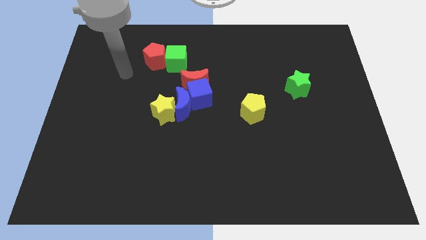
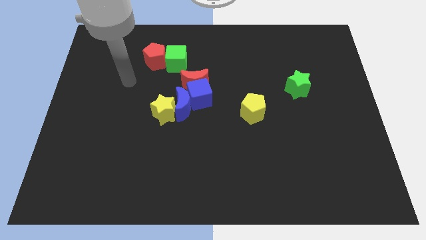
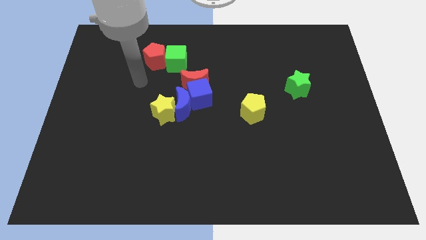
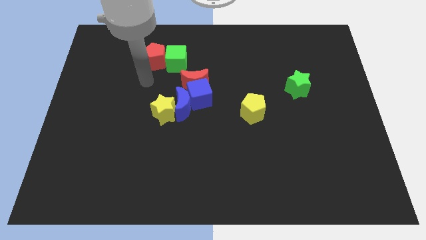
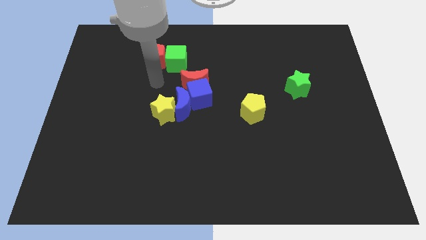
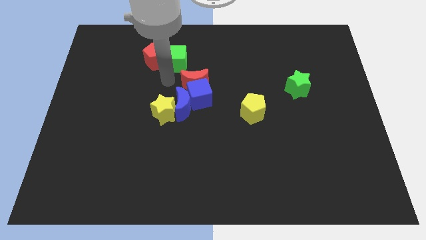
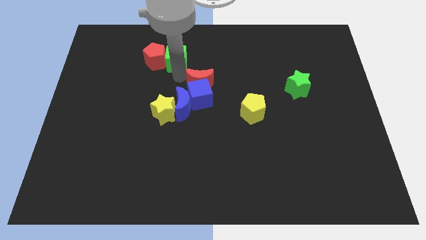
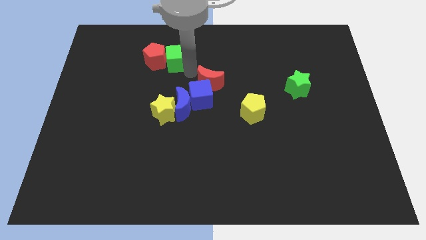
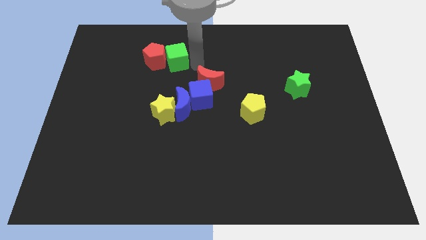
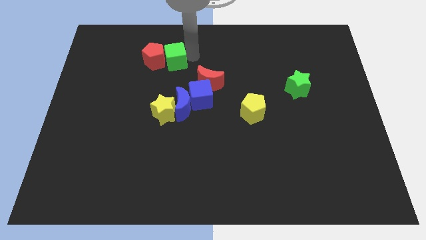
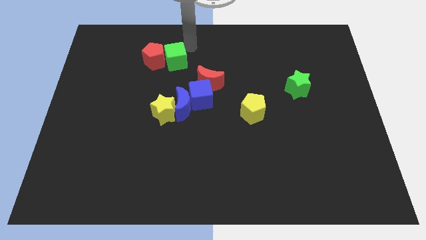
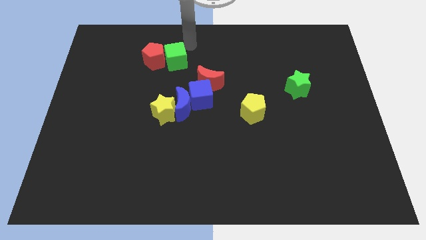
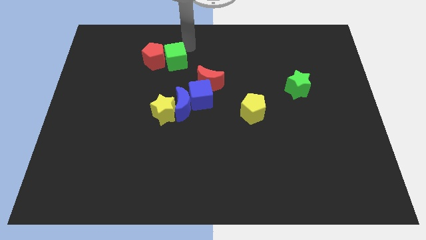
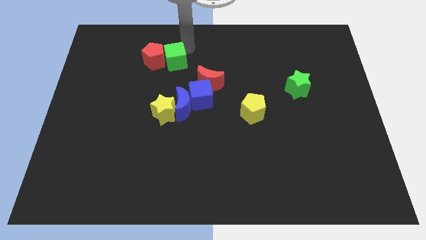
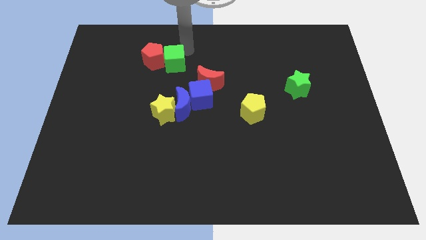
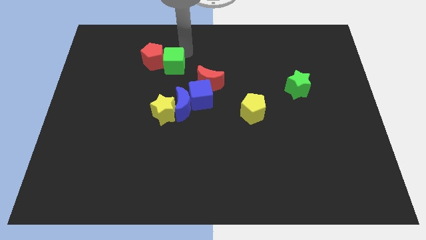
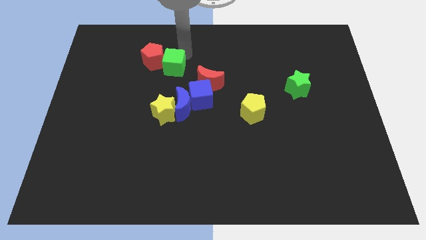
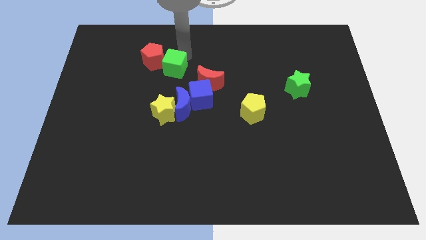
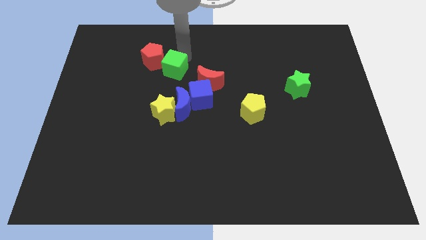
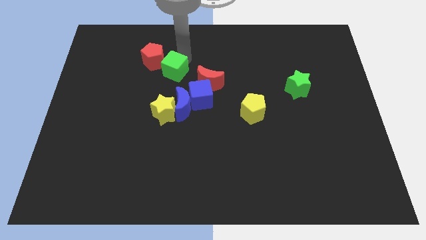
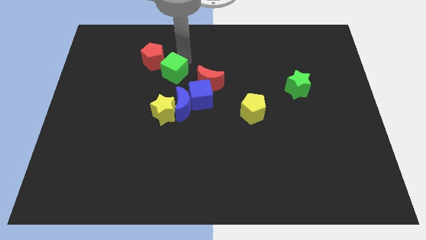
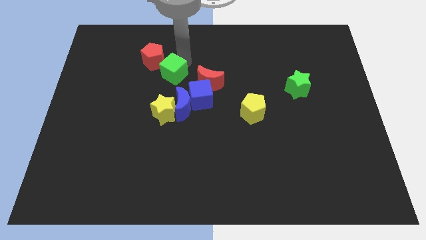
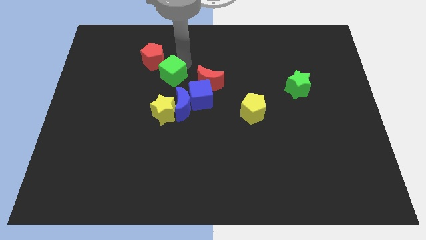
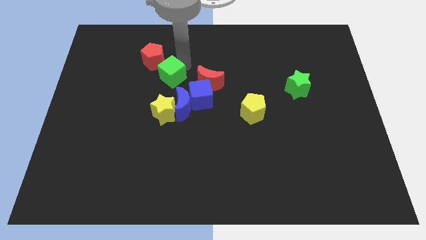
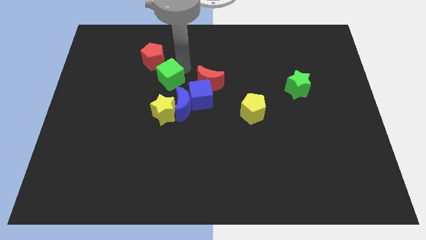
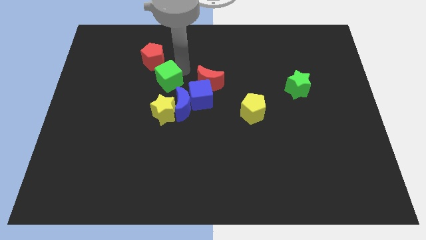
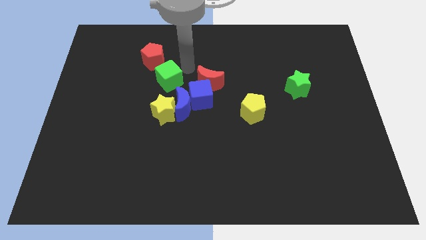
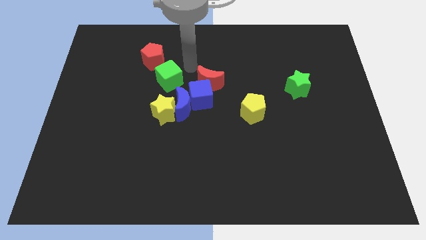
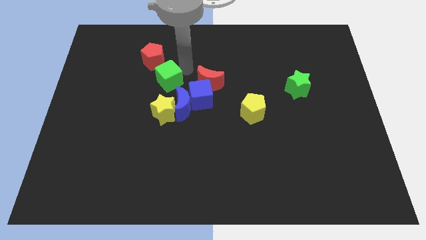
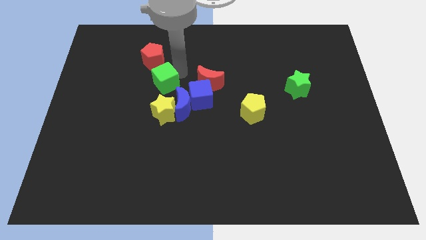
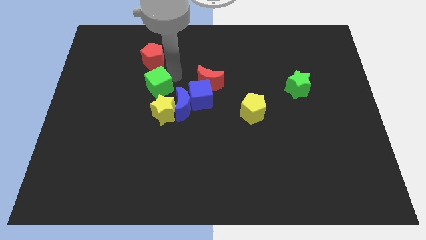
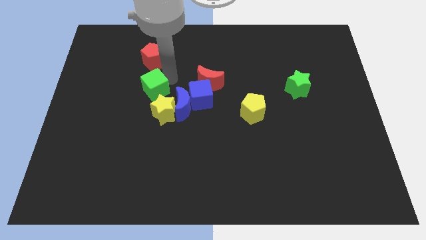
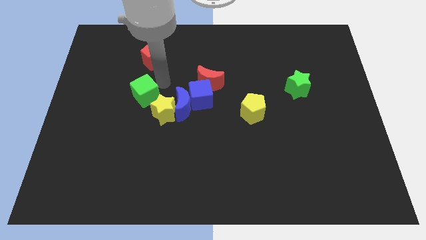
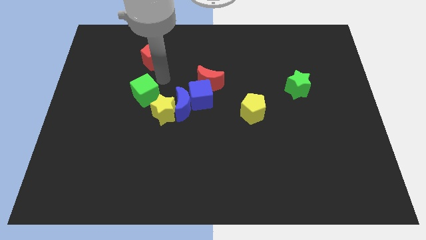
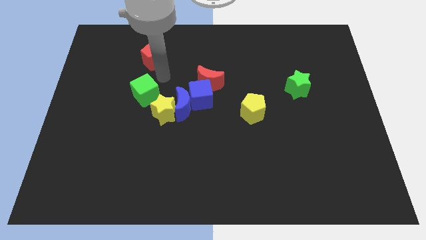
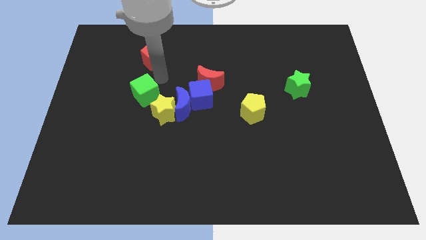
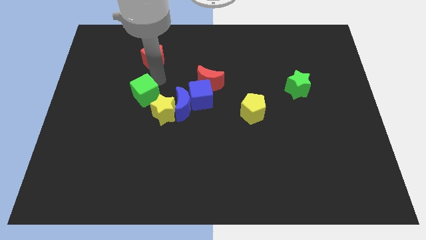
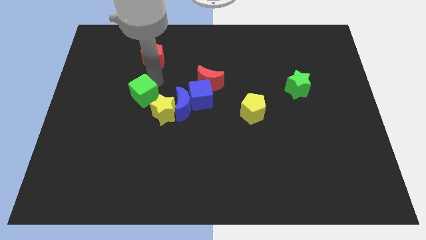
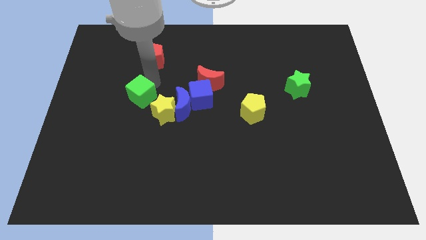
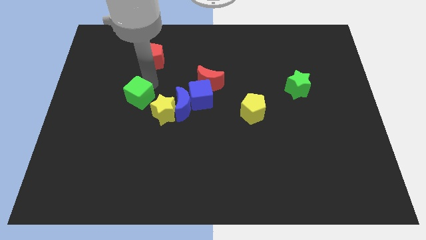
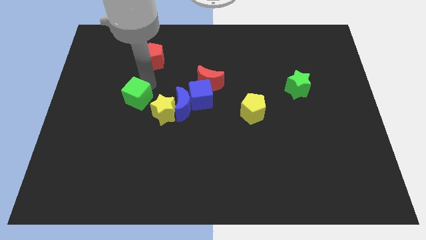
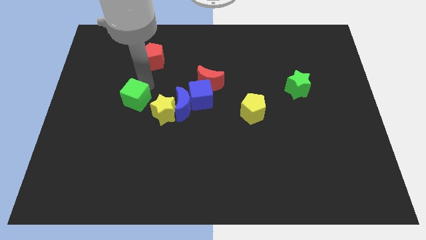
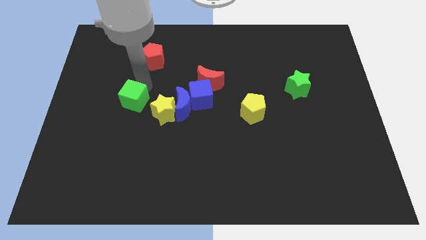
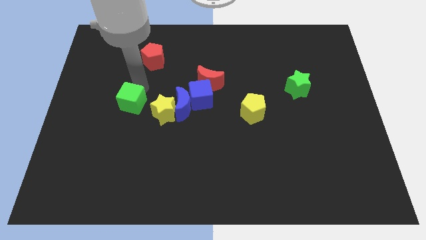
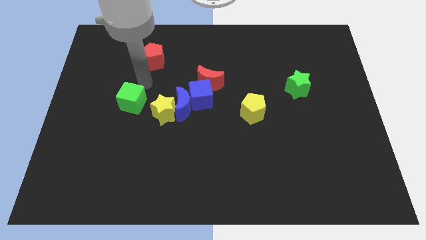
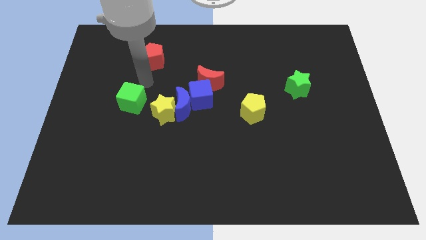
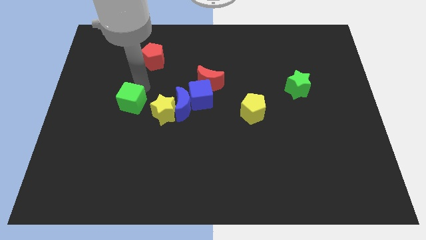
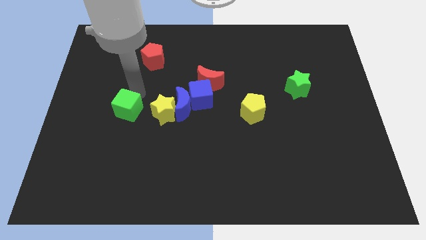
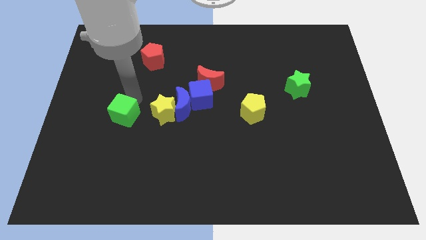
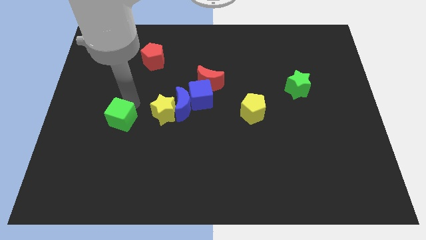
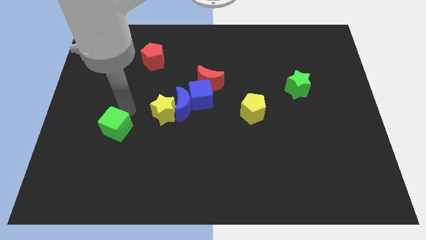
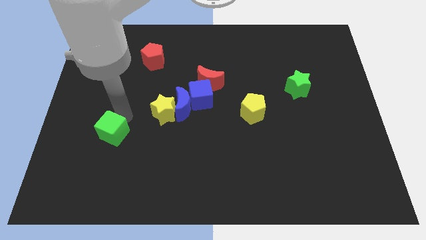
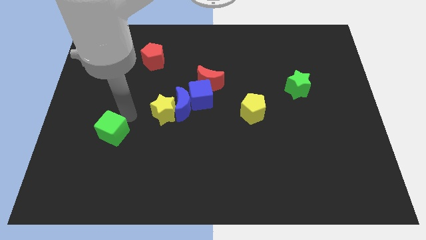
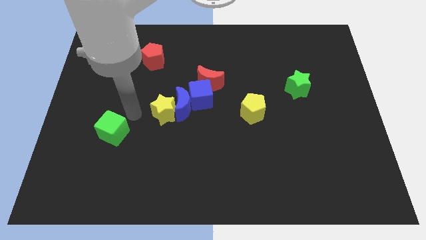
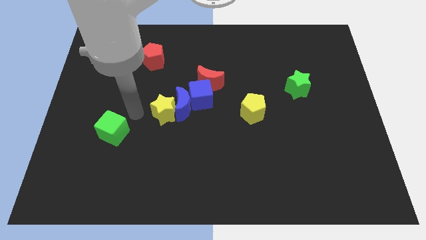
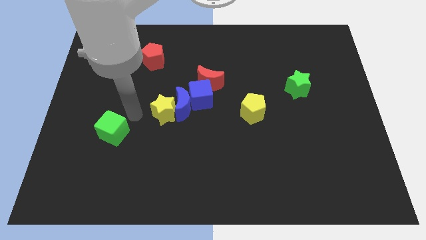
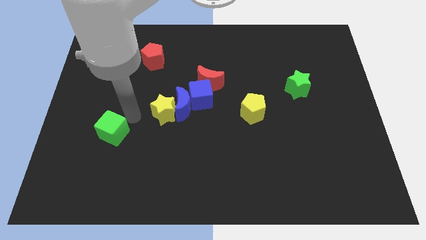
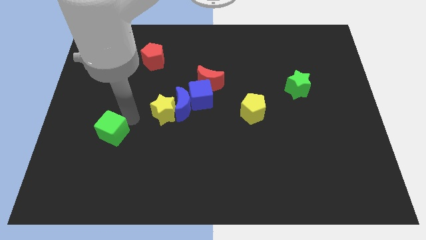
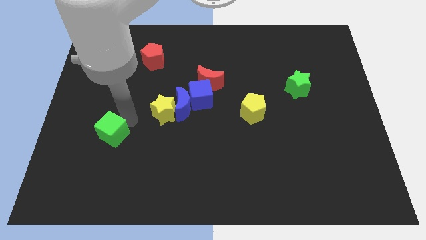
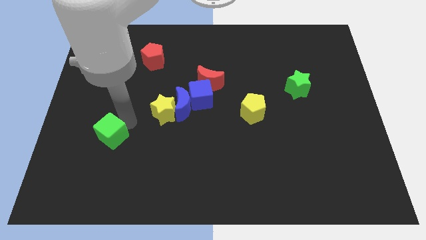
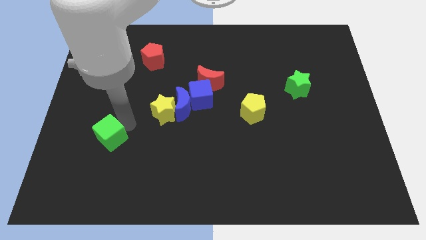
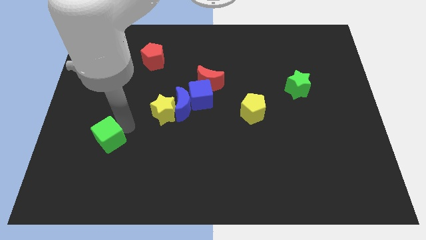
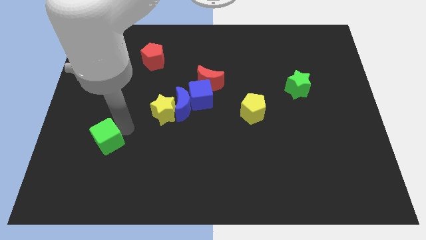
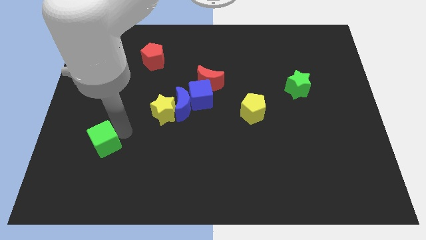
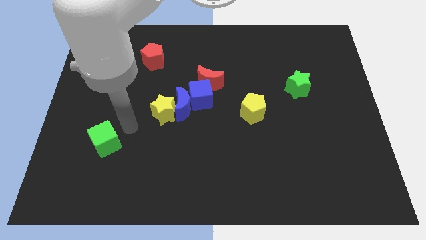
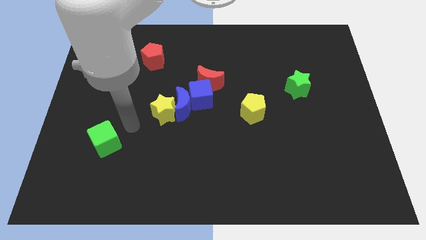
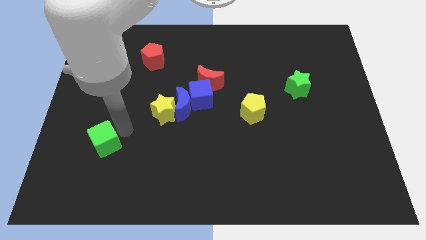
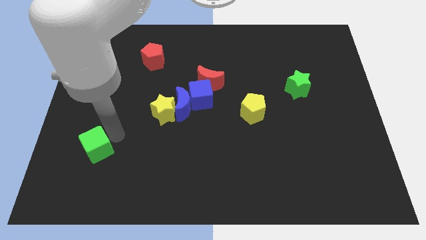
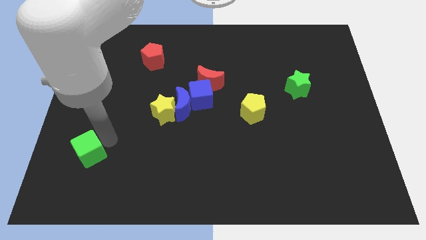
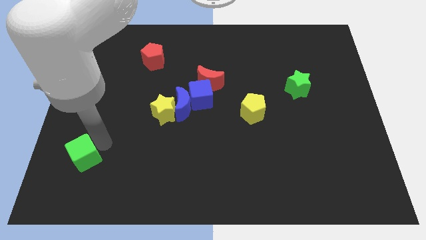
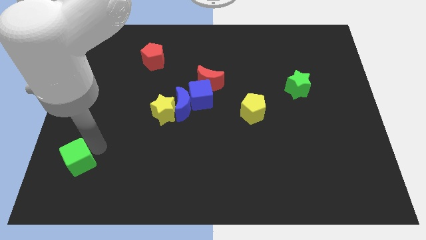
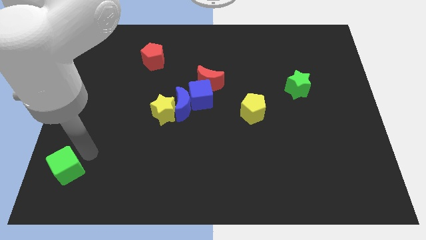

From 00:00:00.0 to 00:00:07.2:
move the green cube to the bottom left of the board
